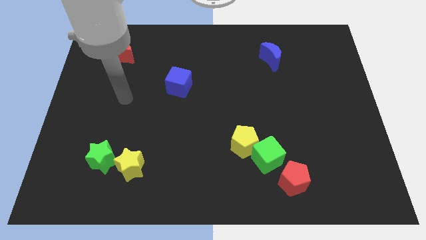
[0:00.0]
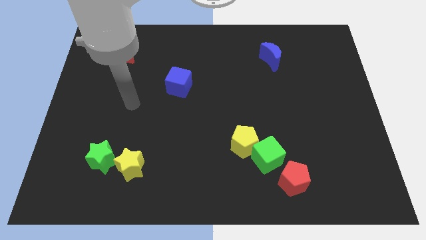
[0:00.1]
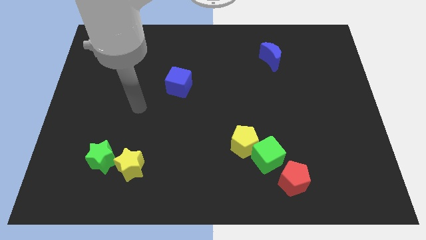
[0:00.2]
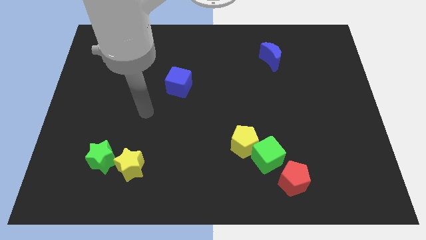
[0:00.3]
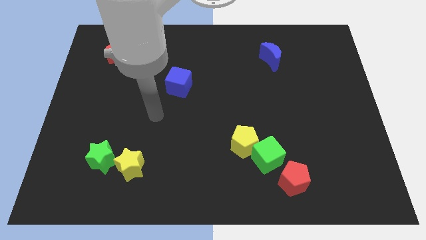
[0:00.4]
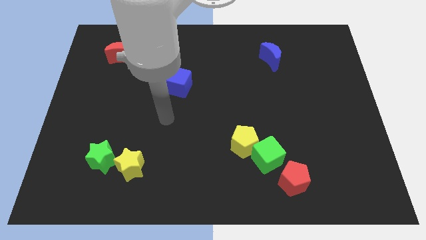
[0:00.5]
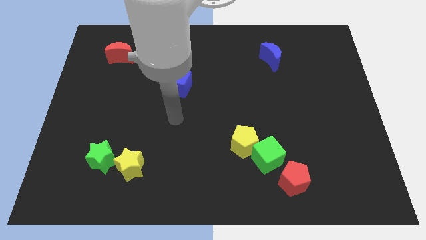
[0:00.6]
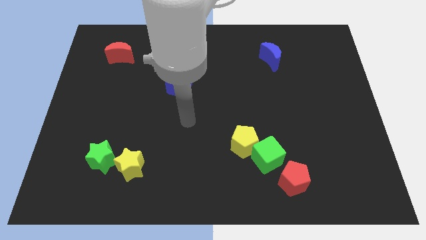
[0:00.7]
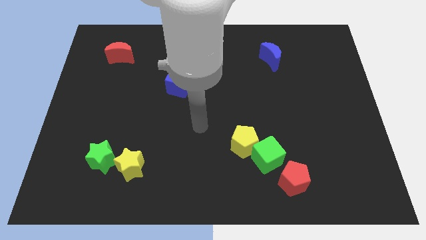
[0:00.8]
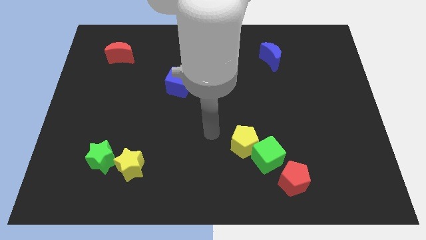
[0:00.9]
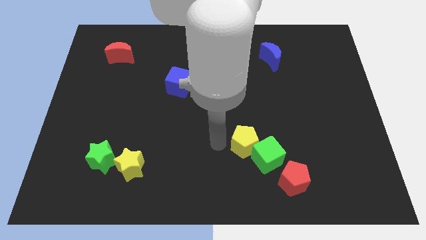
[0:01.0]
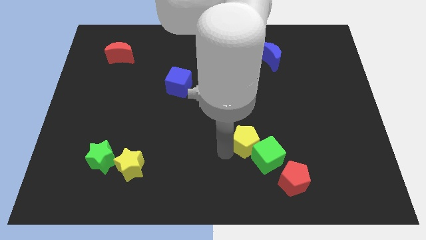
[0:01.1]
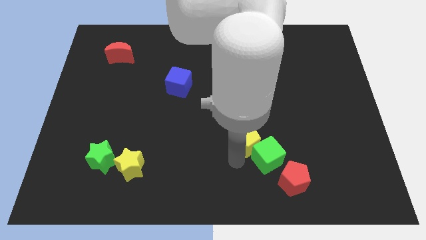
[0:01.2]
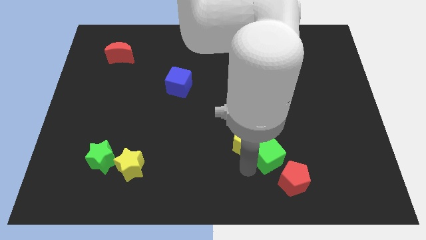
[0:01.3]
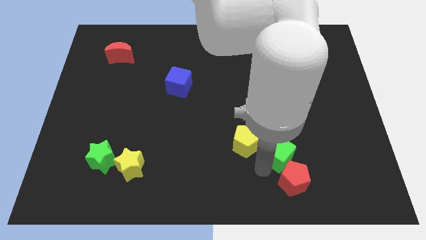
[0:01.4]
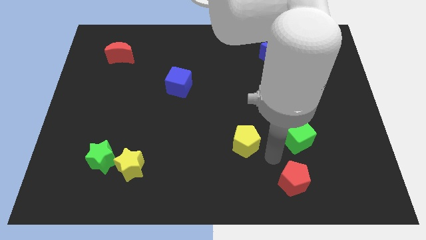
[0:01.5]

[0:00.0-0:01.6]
move the yellow pentagon away from the green cube

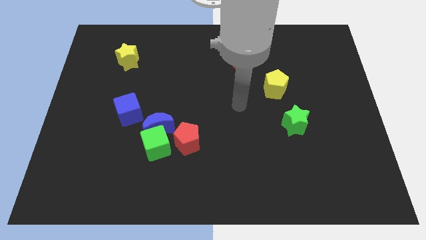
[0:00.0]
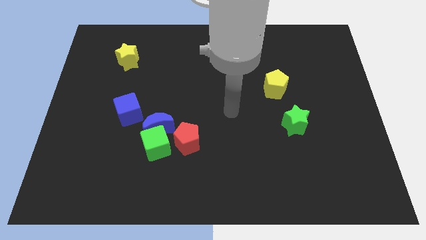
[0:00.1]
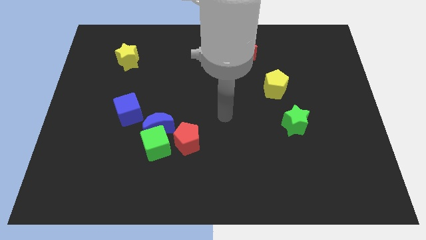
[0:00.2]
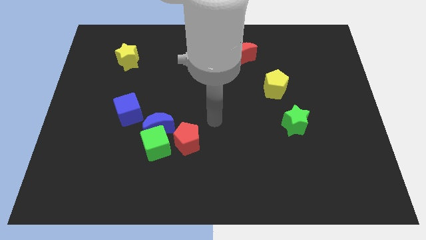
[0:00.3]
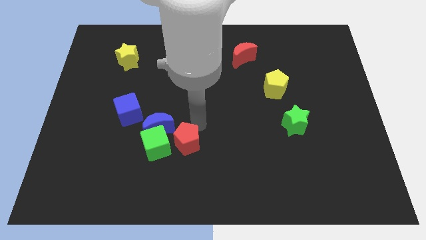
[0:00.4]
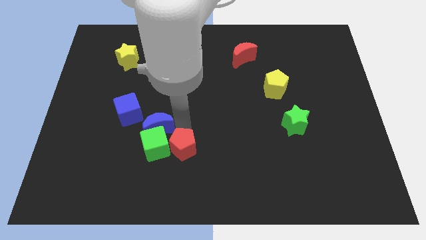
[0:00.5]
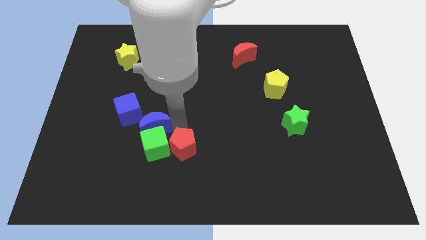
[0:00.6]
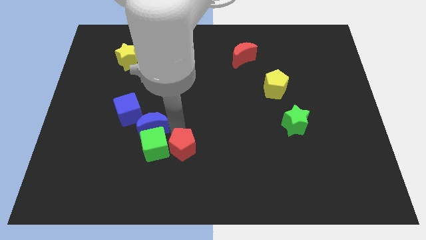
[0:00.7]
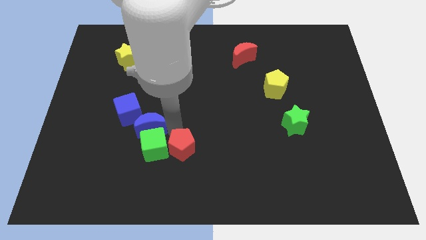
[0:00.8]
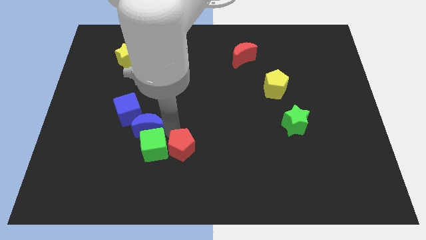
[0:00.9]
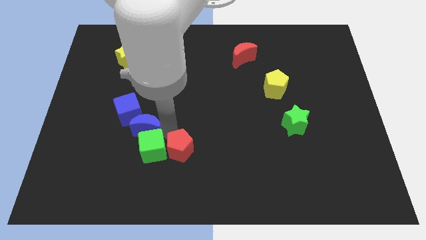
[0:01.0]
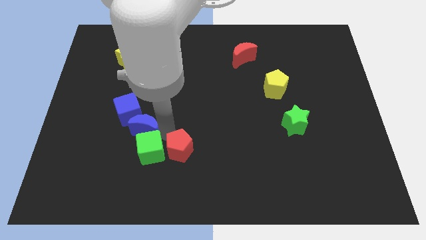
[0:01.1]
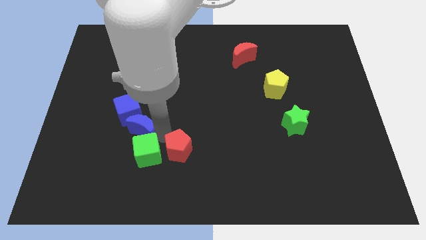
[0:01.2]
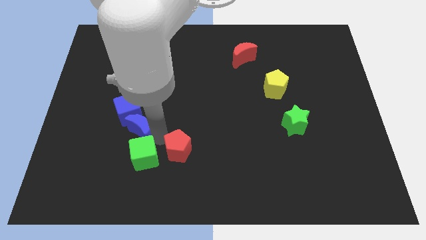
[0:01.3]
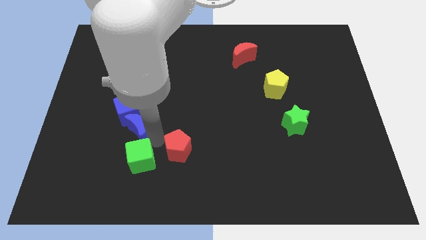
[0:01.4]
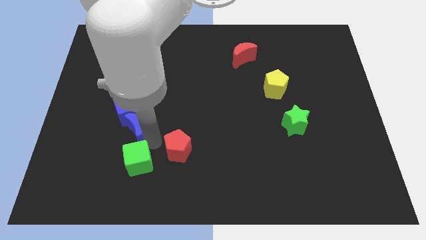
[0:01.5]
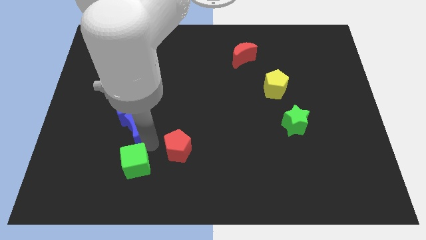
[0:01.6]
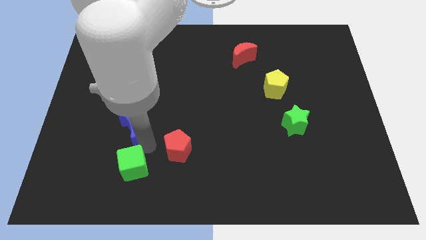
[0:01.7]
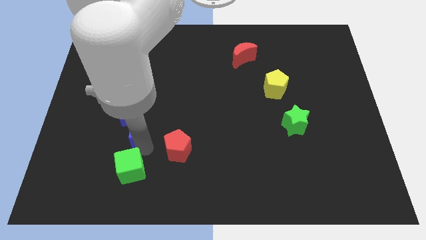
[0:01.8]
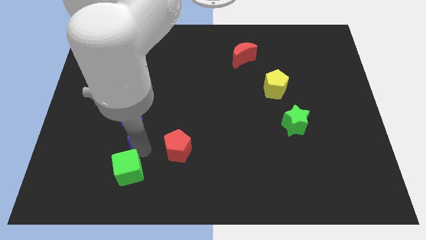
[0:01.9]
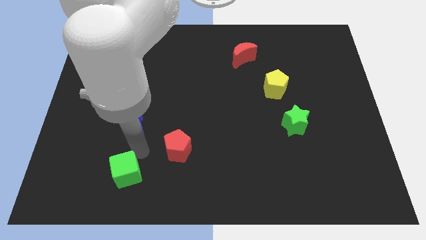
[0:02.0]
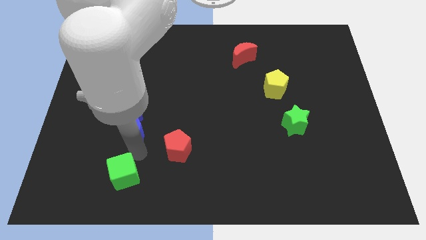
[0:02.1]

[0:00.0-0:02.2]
move the green cube away from the blue moon and red pentagon

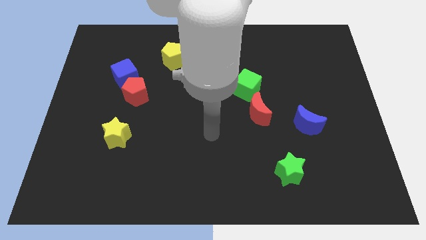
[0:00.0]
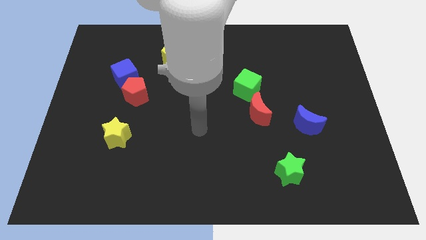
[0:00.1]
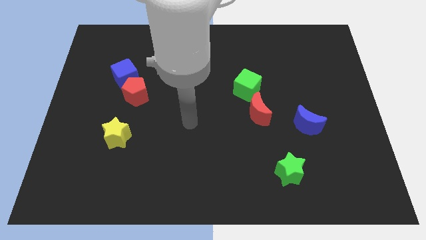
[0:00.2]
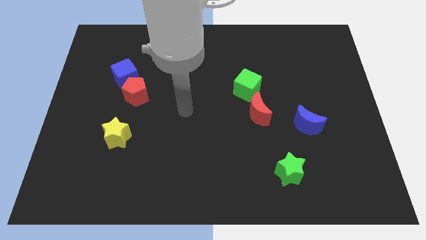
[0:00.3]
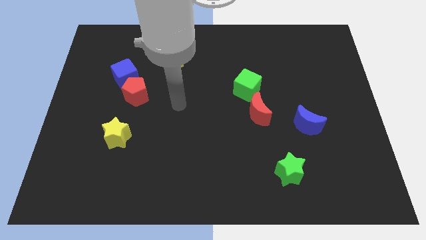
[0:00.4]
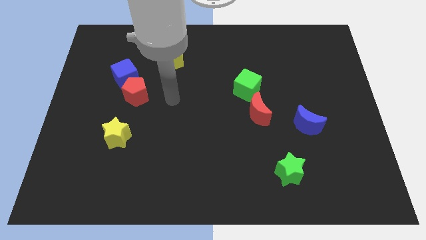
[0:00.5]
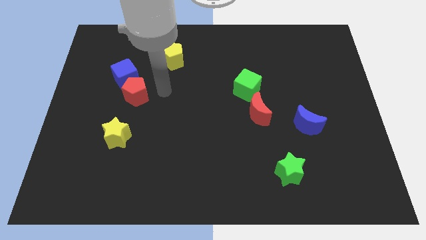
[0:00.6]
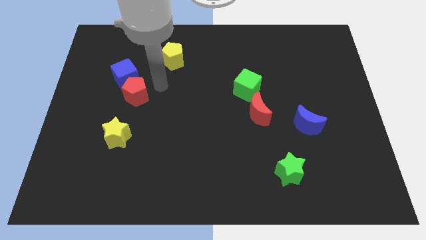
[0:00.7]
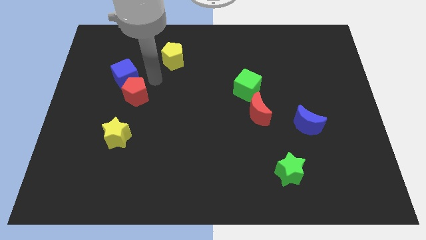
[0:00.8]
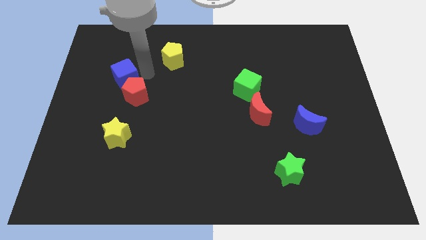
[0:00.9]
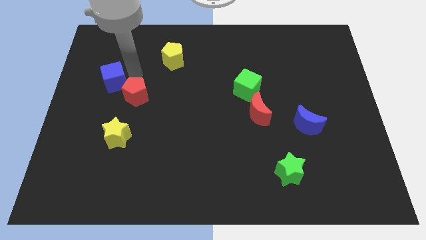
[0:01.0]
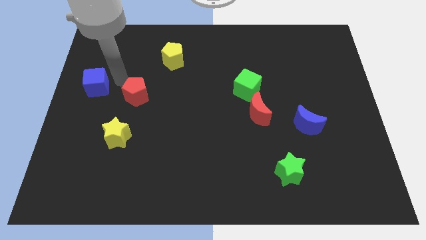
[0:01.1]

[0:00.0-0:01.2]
separate the red pentagon from the blue cube

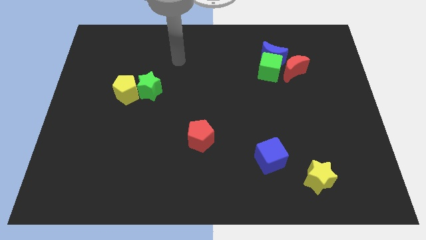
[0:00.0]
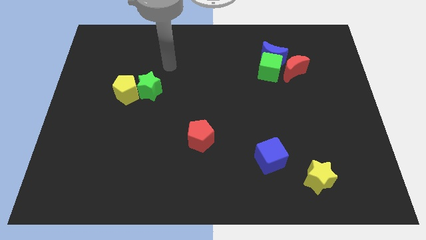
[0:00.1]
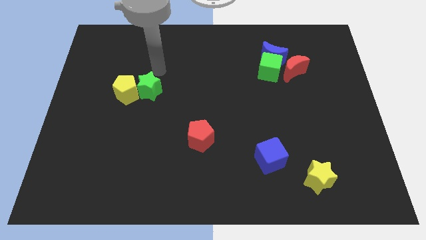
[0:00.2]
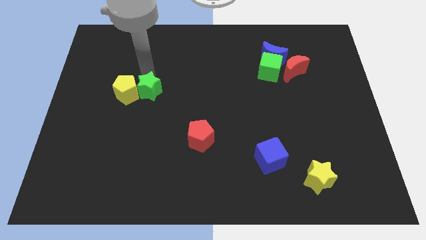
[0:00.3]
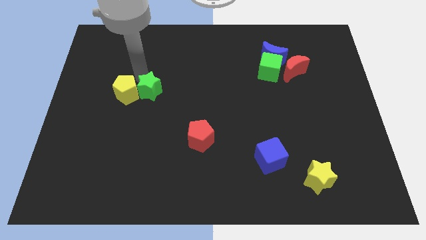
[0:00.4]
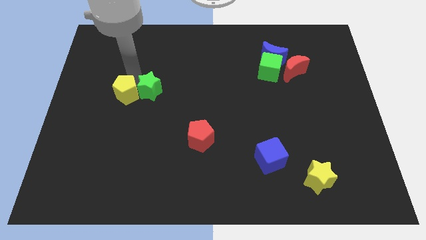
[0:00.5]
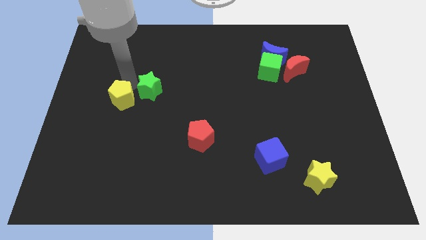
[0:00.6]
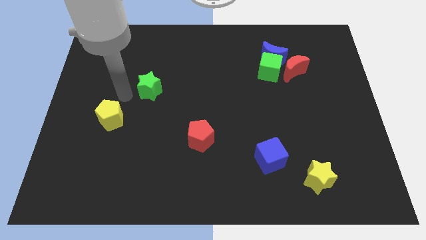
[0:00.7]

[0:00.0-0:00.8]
separate the green star from the yellow pentagon

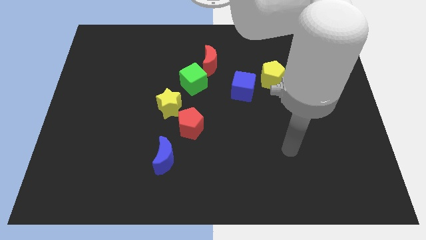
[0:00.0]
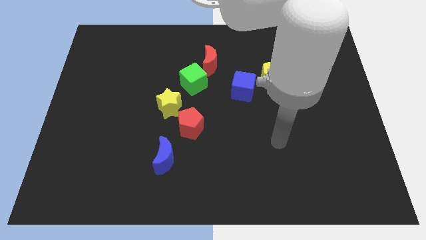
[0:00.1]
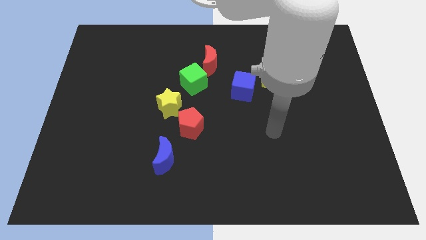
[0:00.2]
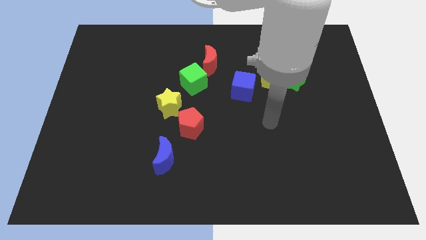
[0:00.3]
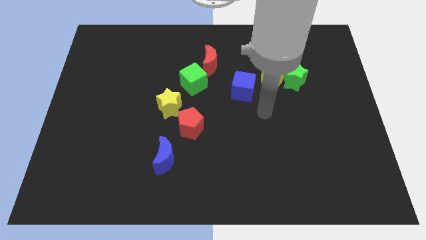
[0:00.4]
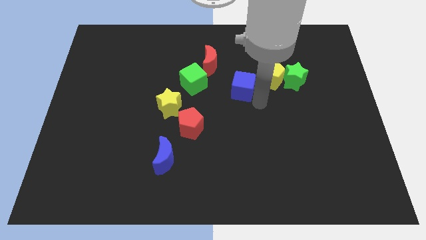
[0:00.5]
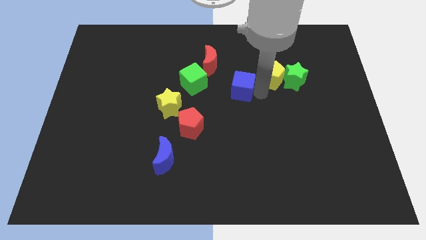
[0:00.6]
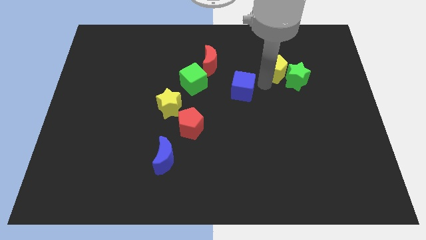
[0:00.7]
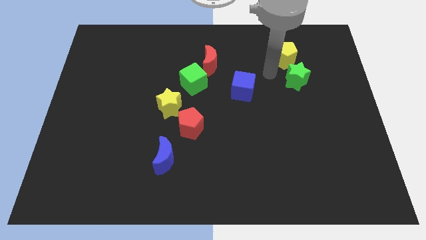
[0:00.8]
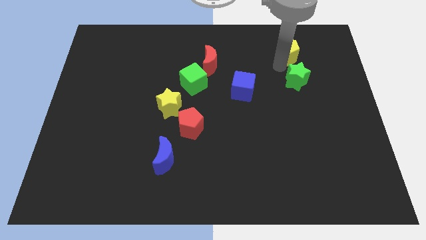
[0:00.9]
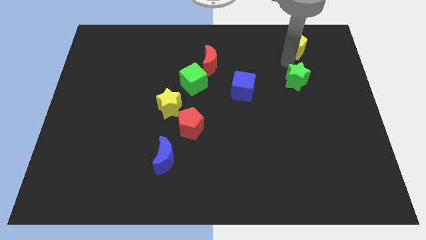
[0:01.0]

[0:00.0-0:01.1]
pull the green star apart from the yellow pentagon

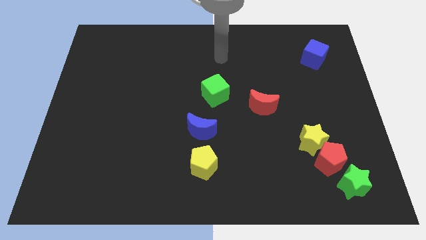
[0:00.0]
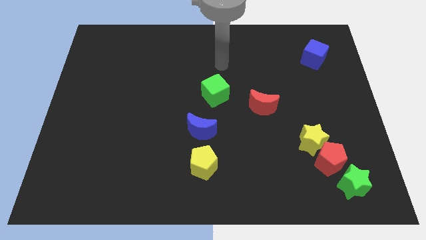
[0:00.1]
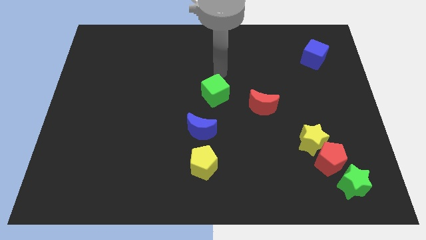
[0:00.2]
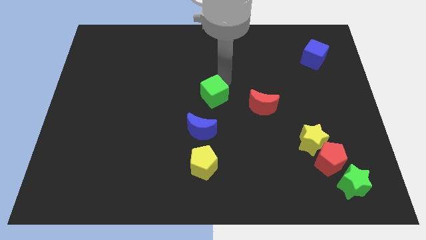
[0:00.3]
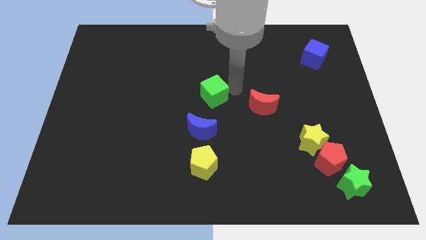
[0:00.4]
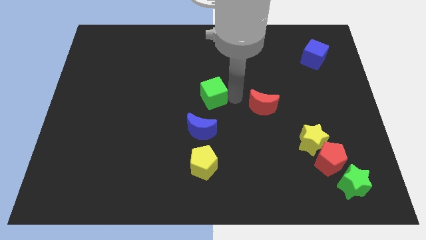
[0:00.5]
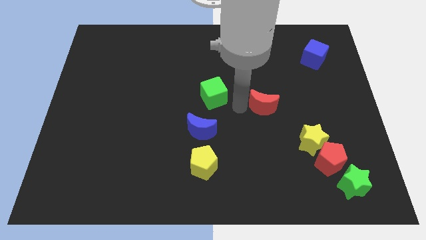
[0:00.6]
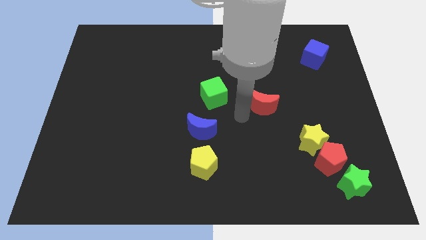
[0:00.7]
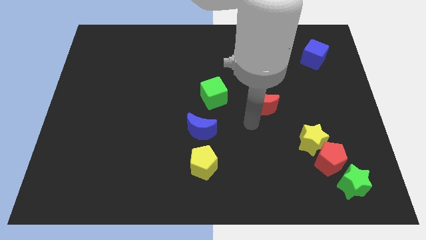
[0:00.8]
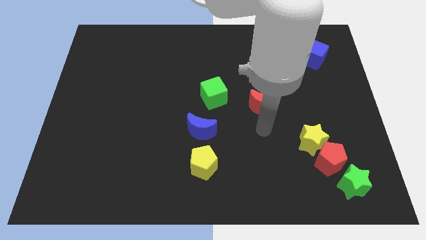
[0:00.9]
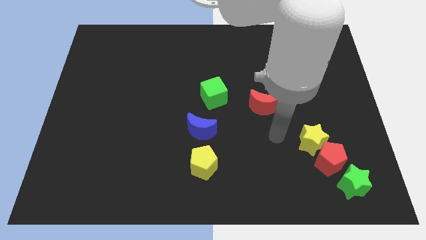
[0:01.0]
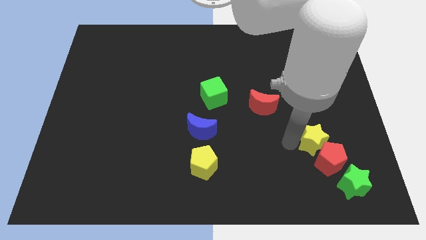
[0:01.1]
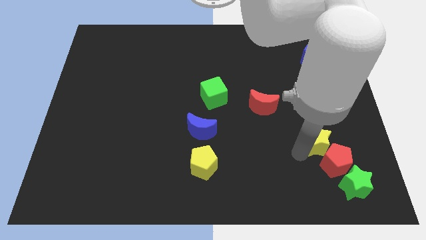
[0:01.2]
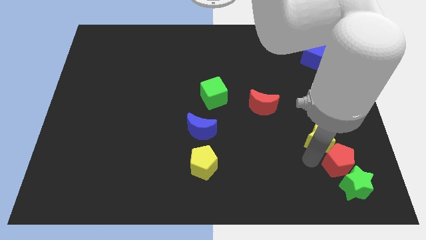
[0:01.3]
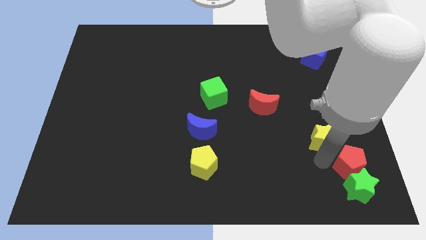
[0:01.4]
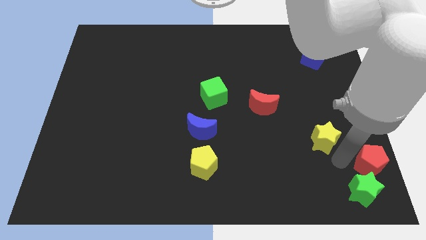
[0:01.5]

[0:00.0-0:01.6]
move the yellow star away from the red pentagon

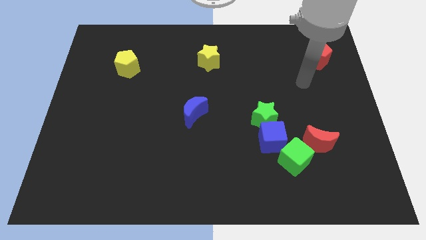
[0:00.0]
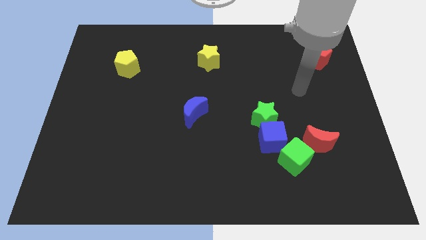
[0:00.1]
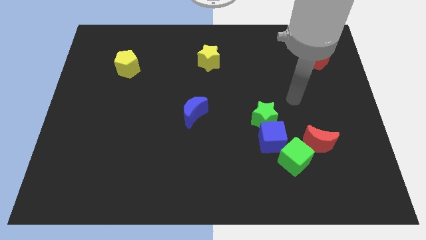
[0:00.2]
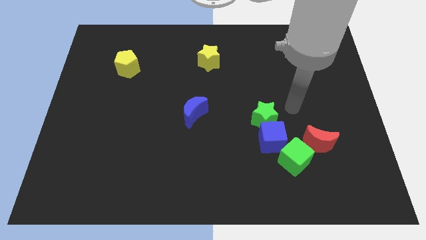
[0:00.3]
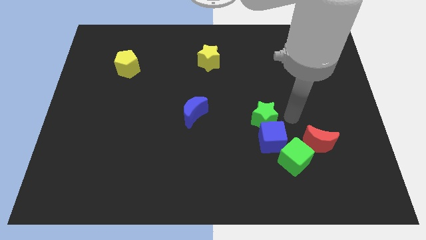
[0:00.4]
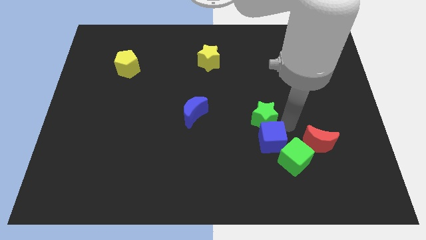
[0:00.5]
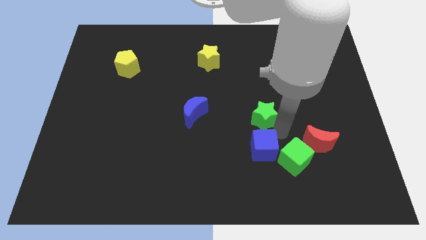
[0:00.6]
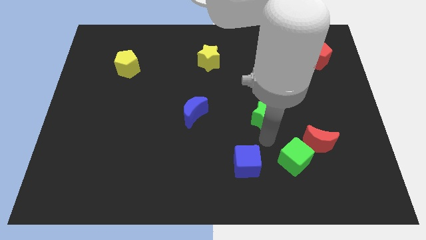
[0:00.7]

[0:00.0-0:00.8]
move the green star away from the blue cube
